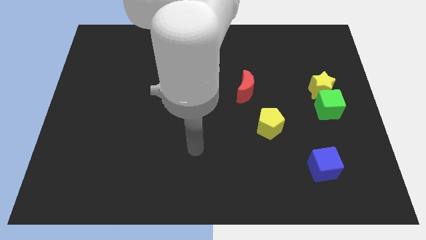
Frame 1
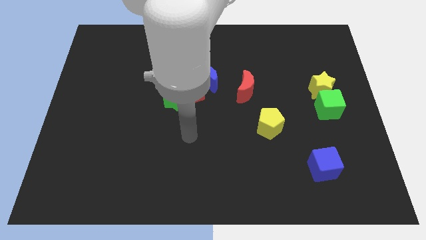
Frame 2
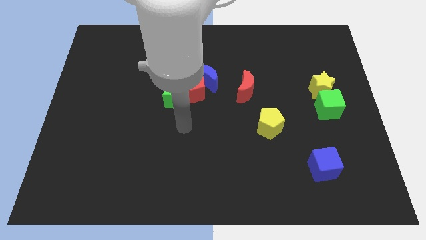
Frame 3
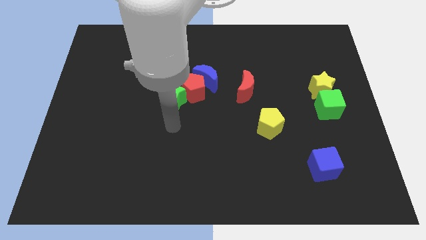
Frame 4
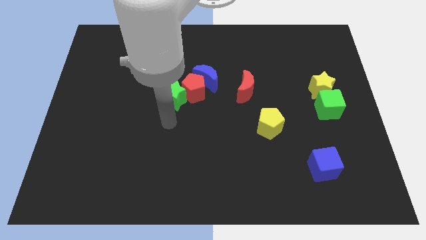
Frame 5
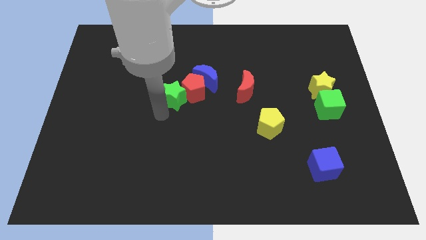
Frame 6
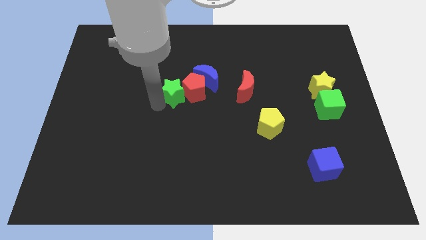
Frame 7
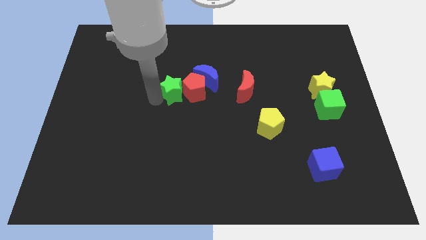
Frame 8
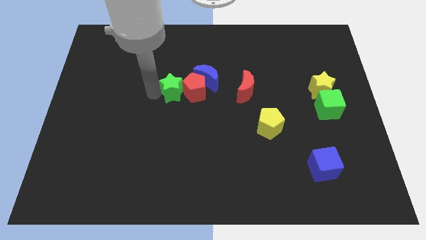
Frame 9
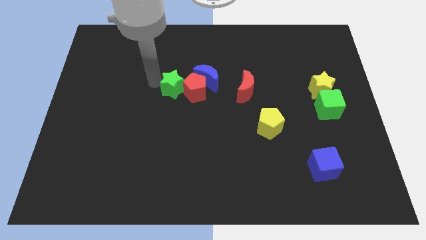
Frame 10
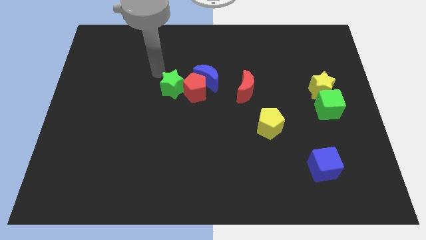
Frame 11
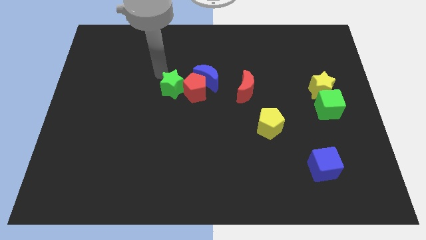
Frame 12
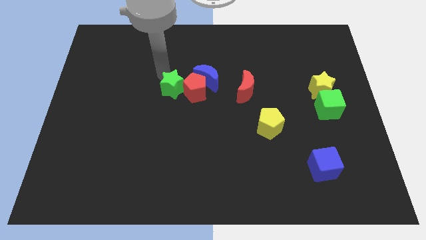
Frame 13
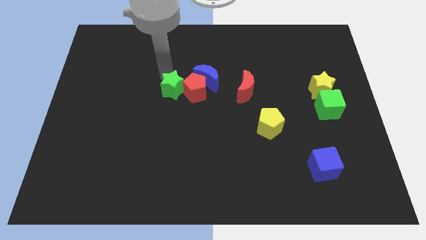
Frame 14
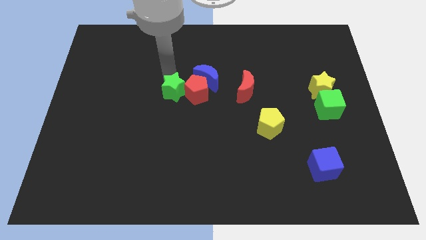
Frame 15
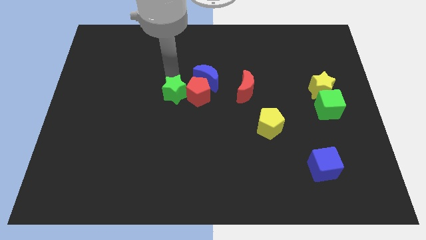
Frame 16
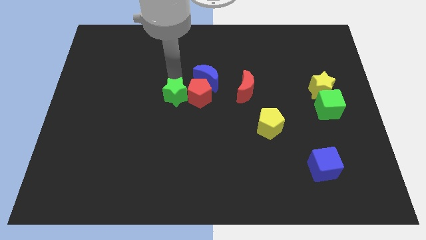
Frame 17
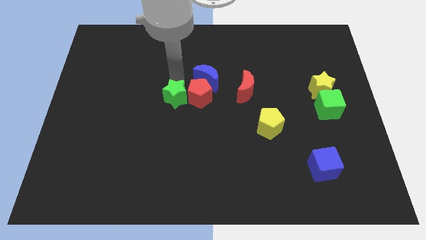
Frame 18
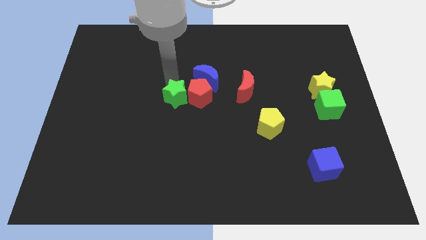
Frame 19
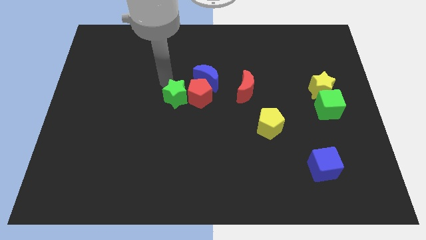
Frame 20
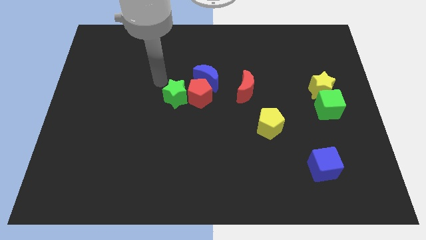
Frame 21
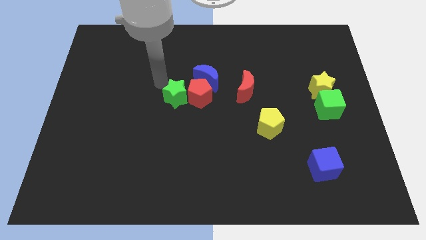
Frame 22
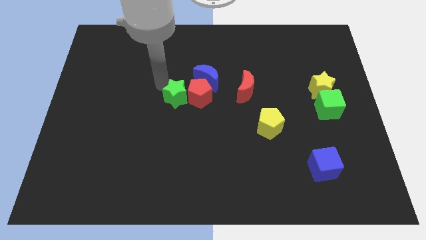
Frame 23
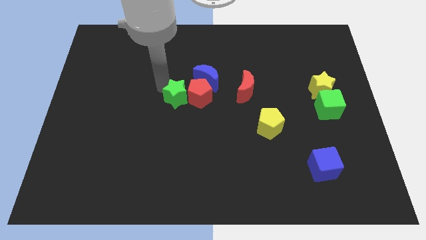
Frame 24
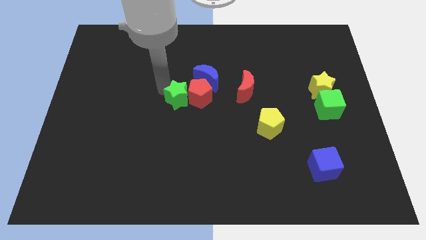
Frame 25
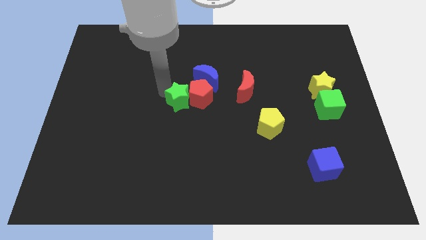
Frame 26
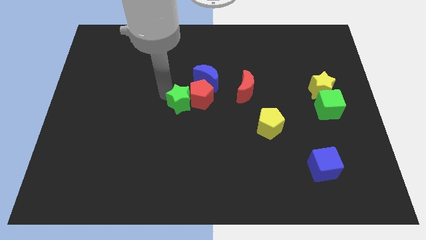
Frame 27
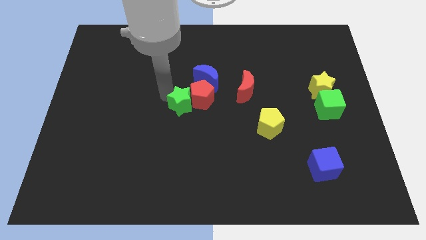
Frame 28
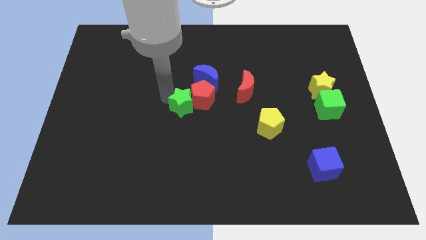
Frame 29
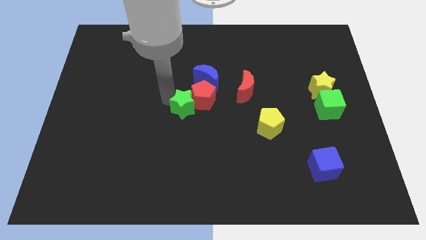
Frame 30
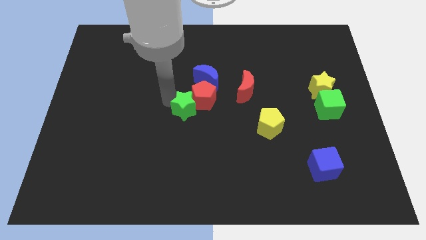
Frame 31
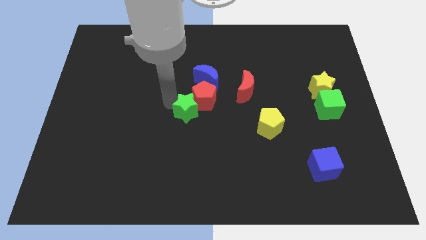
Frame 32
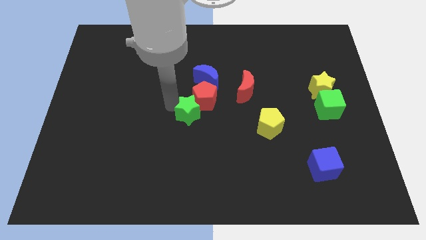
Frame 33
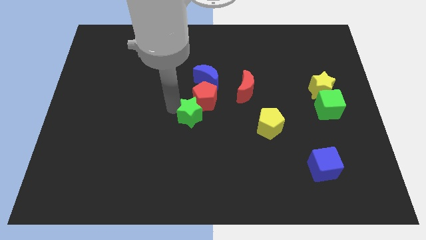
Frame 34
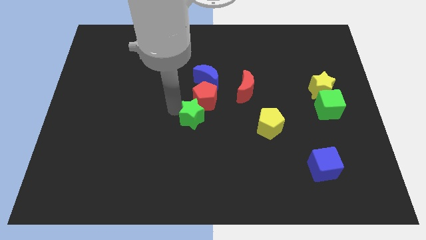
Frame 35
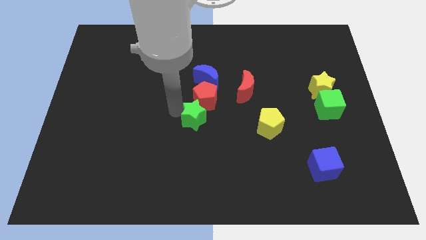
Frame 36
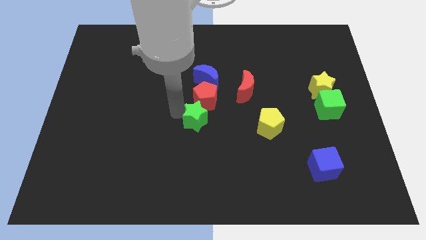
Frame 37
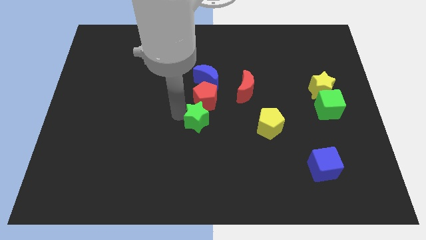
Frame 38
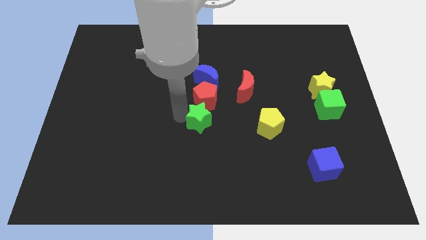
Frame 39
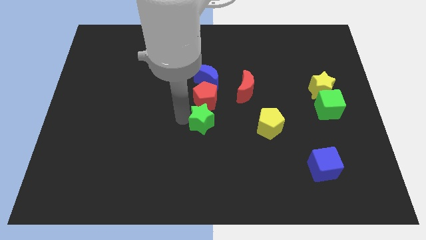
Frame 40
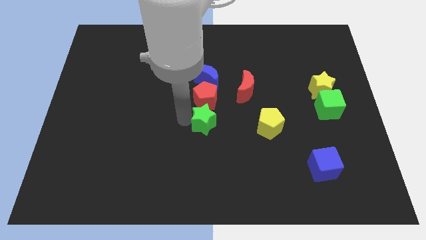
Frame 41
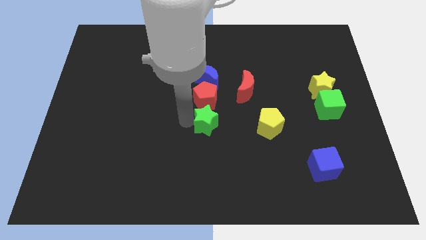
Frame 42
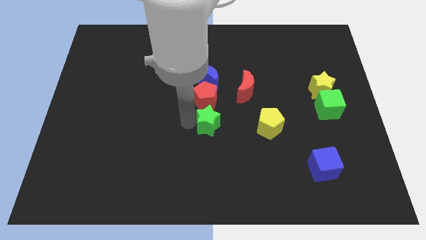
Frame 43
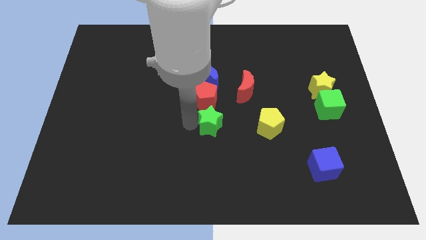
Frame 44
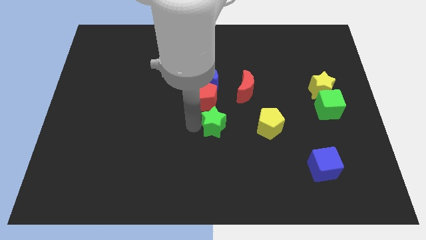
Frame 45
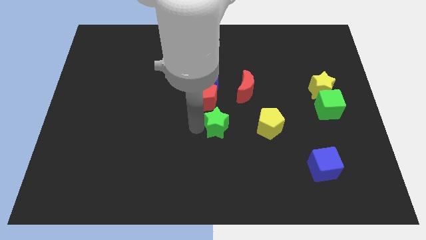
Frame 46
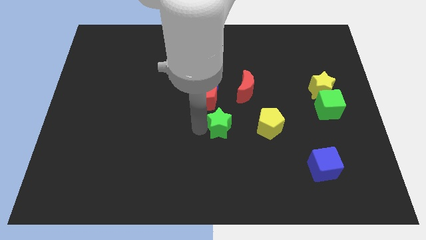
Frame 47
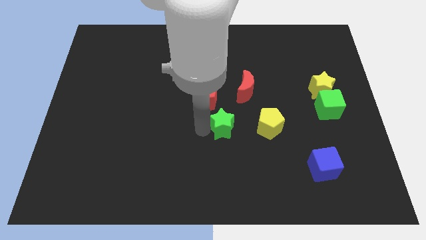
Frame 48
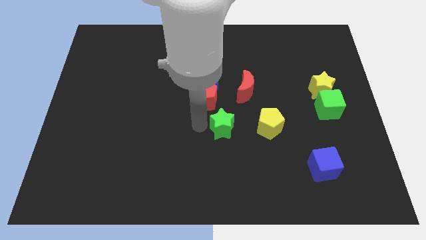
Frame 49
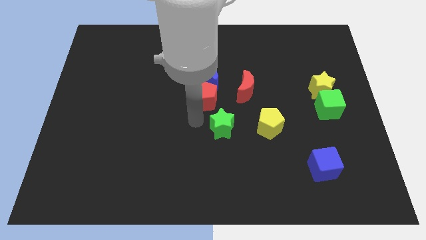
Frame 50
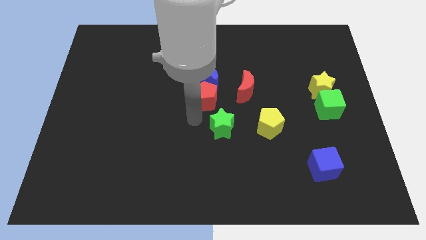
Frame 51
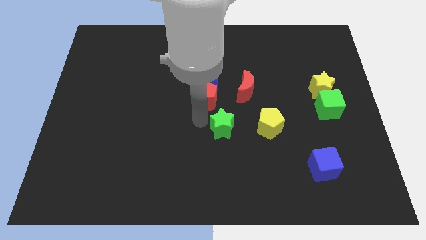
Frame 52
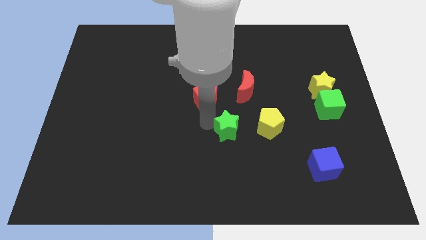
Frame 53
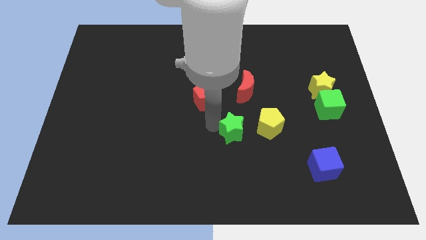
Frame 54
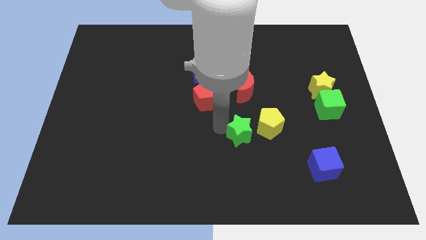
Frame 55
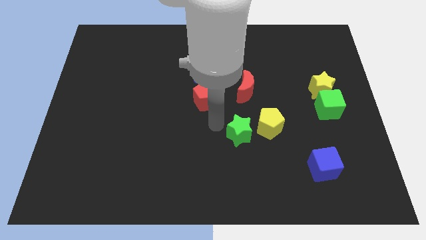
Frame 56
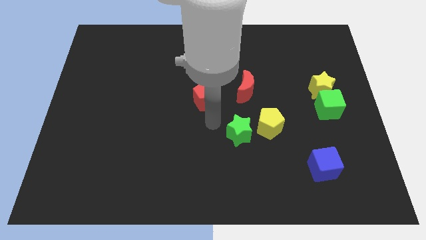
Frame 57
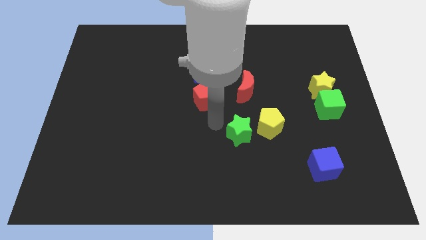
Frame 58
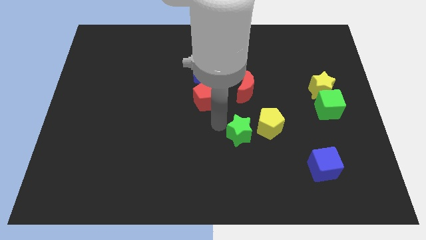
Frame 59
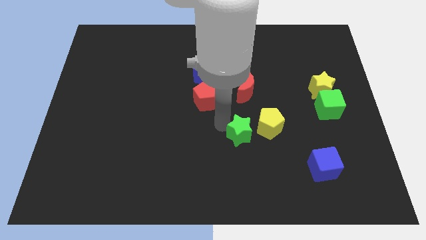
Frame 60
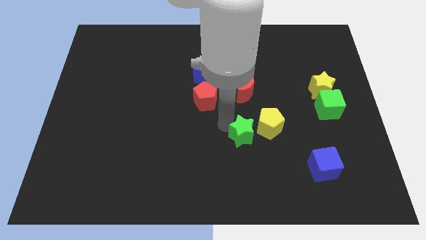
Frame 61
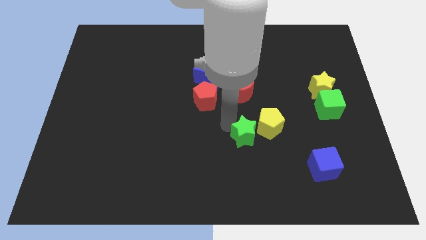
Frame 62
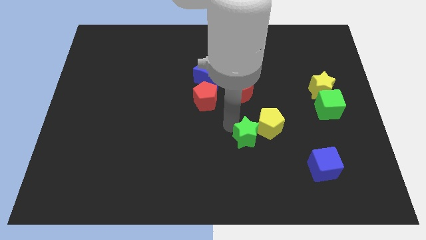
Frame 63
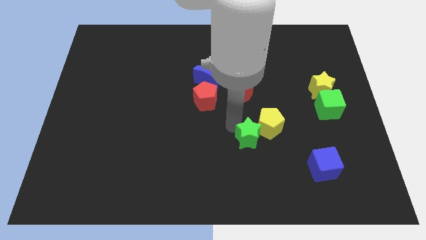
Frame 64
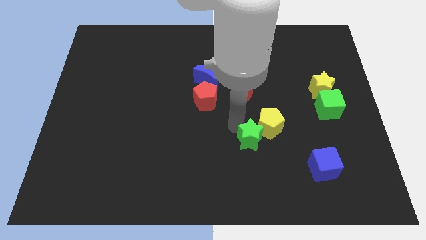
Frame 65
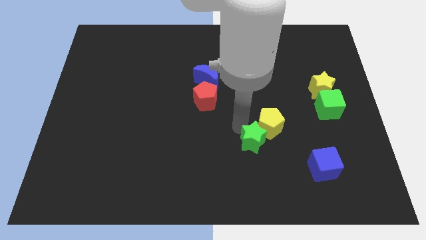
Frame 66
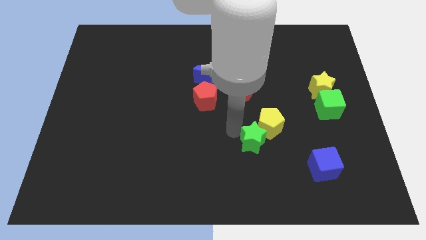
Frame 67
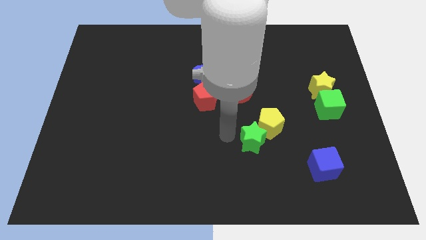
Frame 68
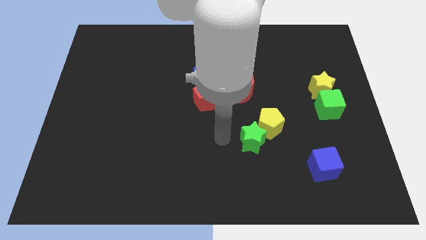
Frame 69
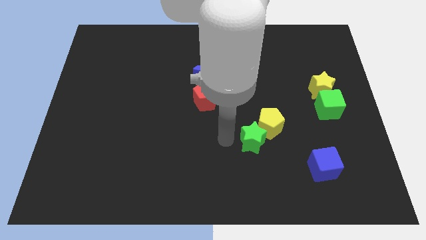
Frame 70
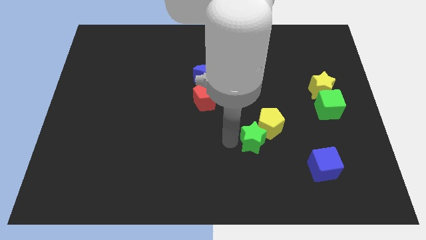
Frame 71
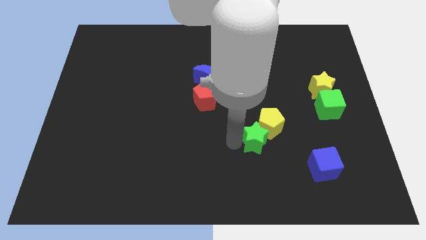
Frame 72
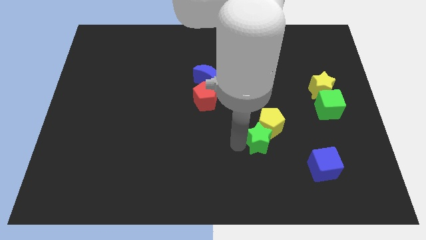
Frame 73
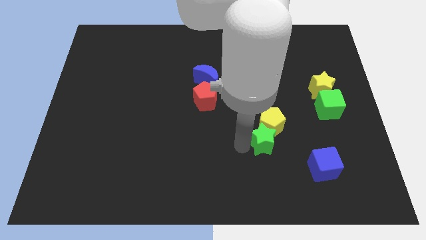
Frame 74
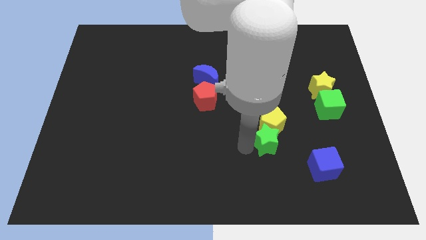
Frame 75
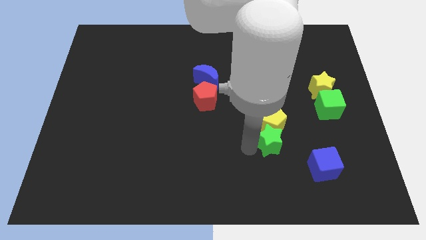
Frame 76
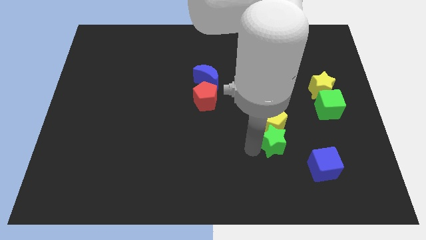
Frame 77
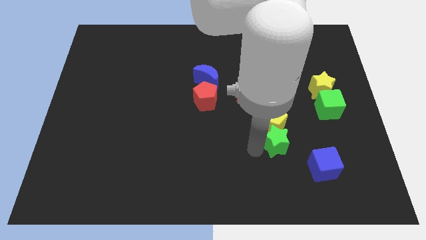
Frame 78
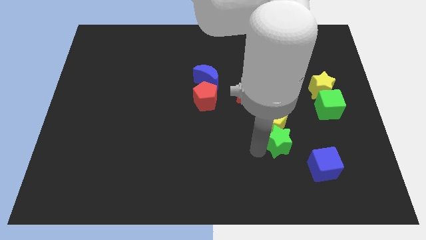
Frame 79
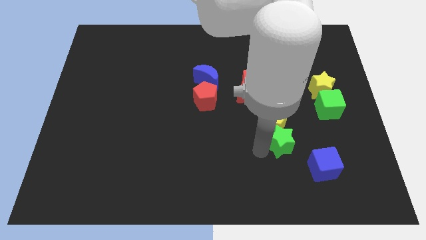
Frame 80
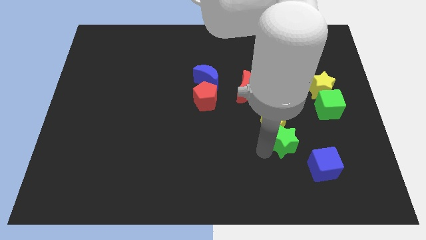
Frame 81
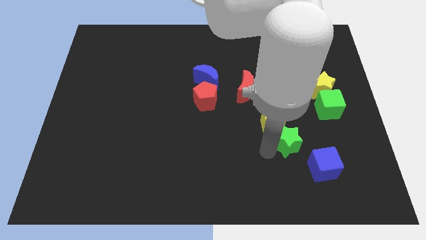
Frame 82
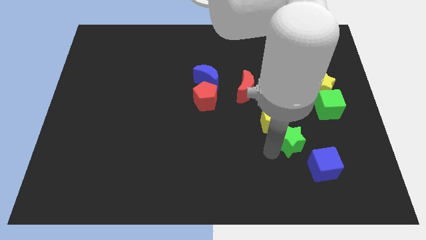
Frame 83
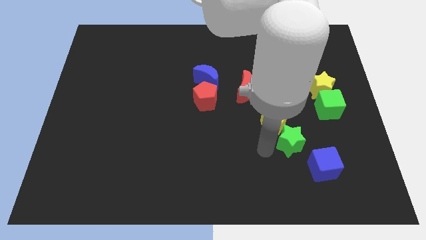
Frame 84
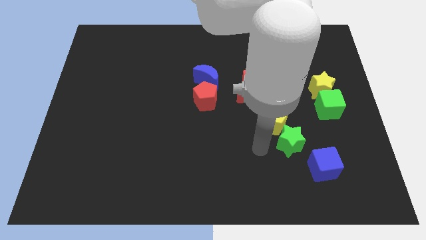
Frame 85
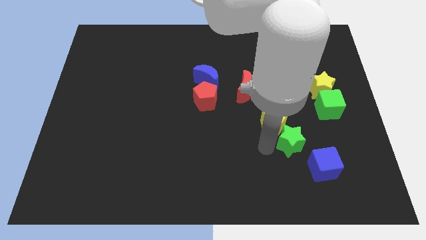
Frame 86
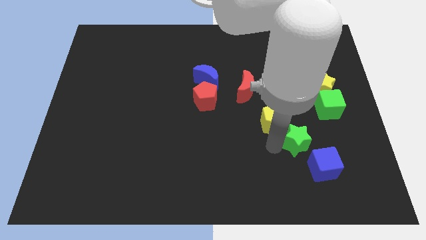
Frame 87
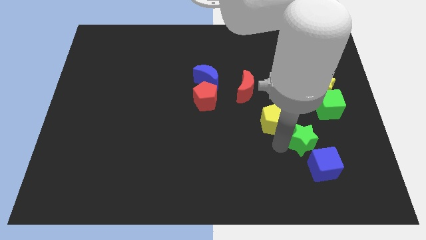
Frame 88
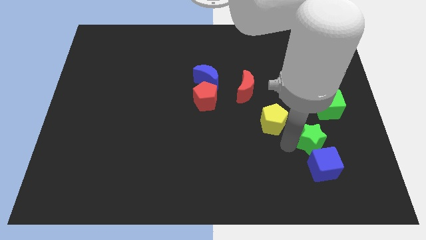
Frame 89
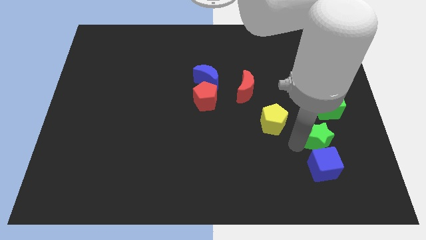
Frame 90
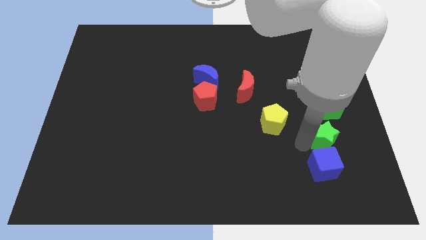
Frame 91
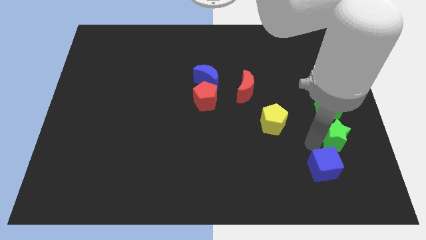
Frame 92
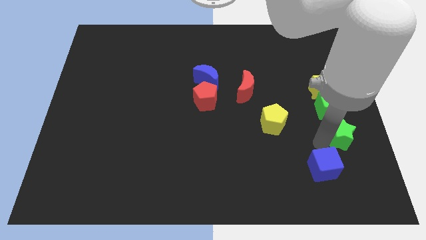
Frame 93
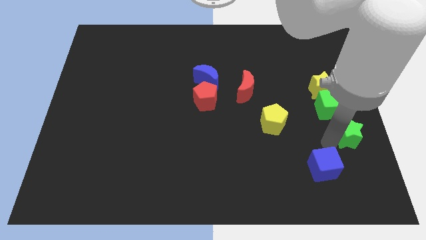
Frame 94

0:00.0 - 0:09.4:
push the green star to the center right
